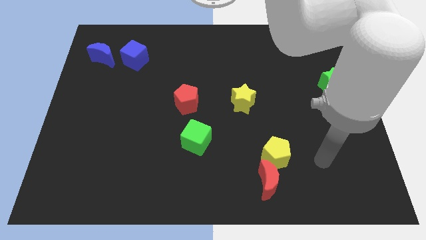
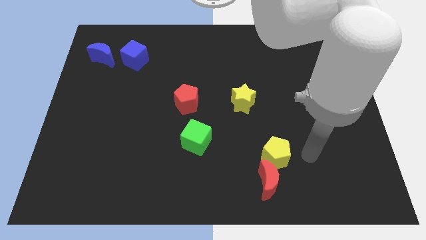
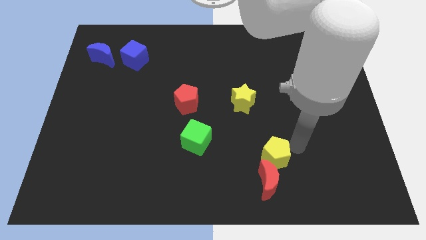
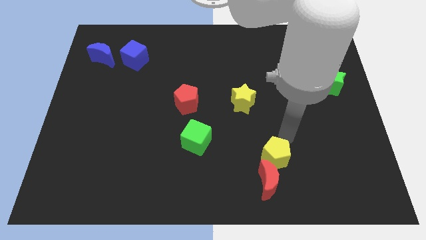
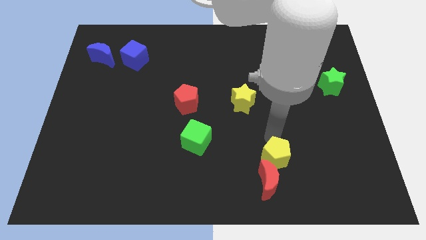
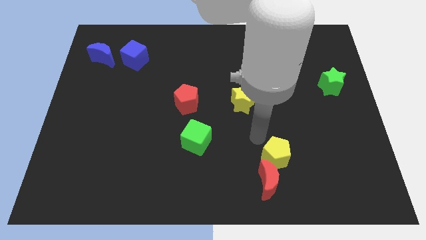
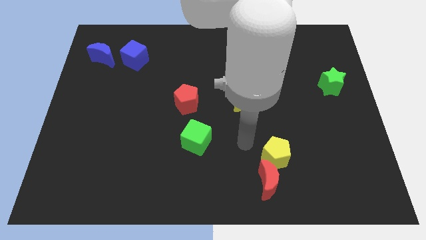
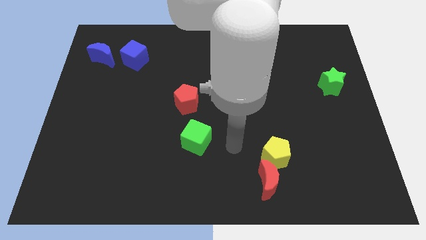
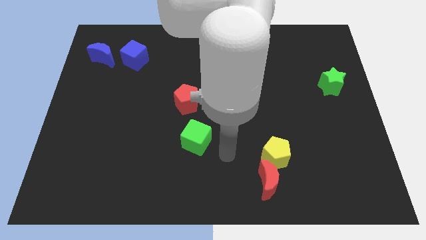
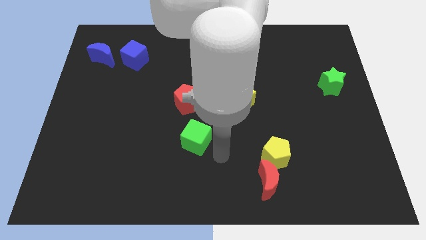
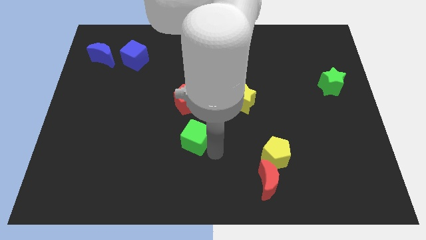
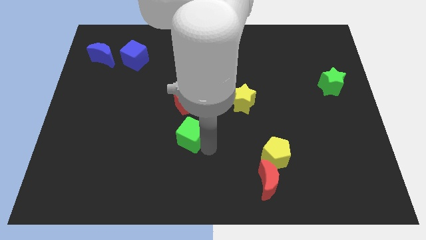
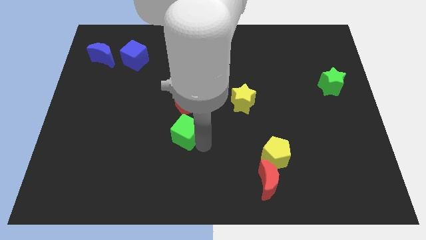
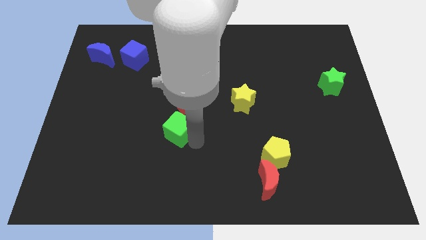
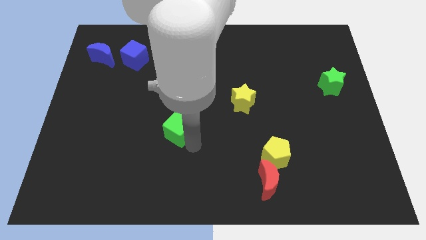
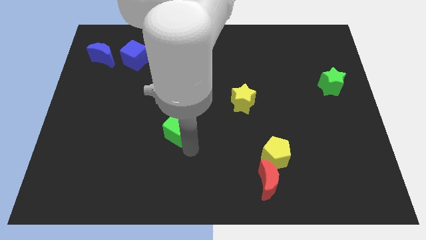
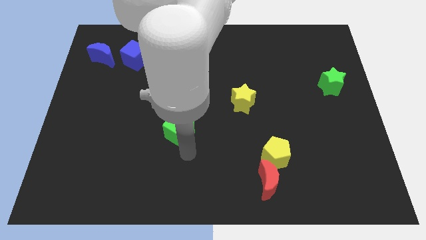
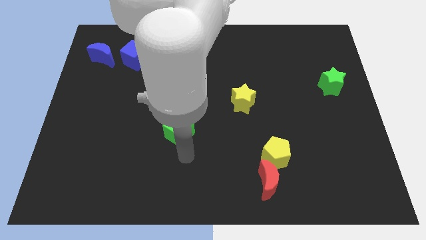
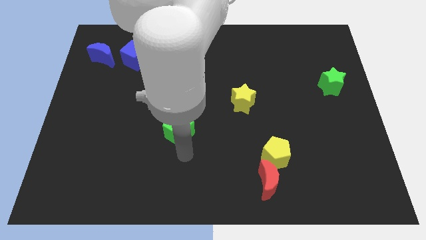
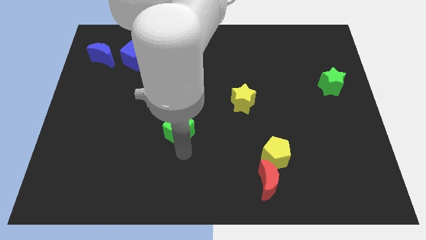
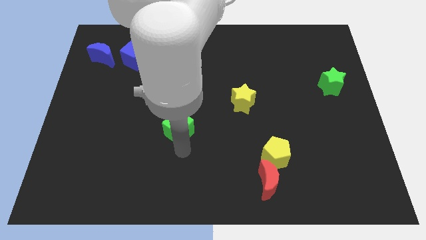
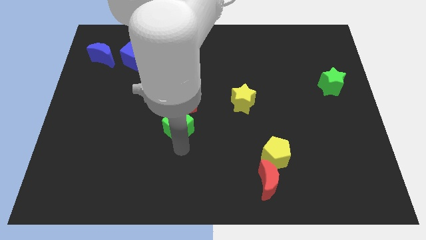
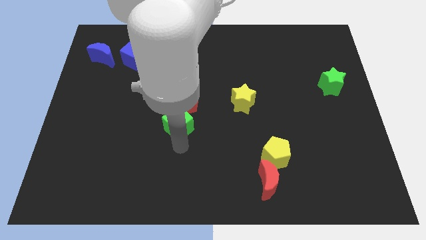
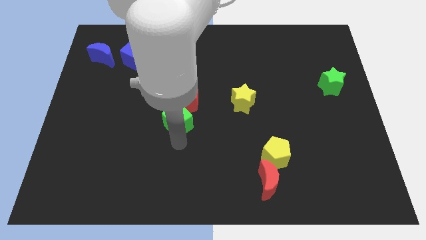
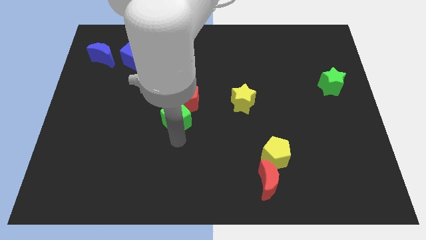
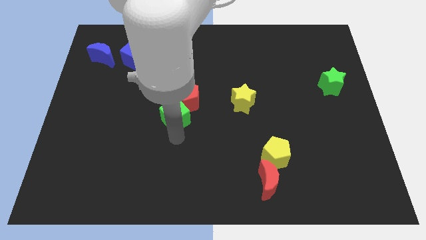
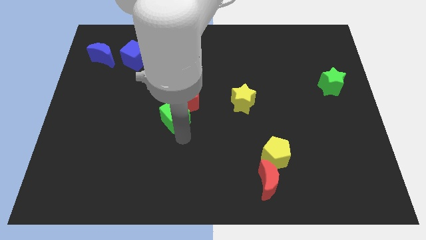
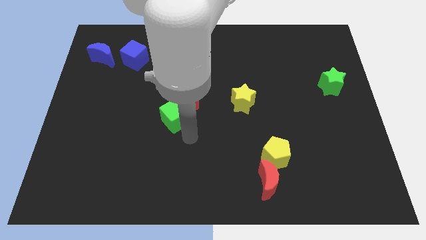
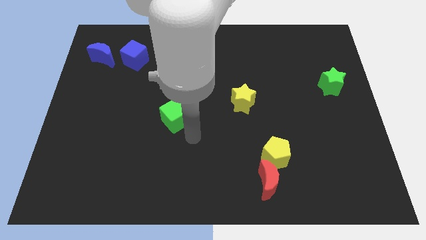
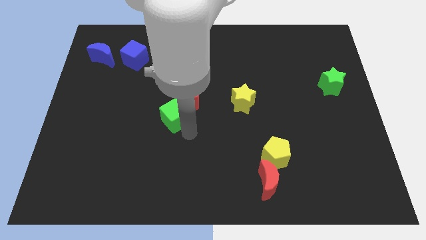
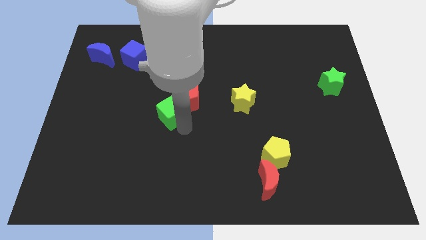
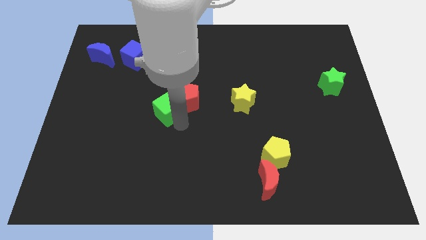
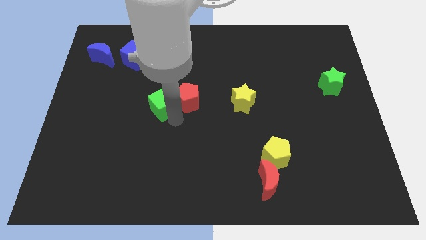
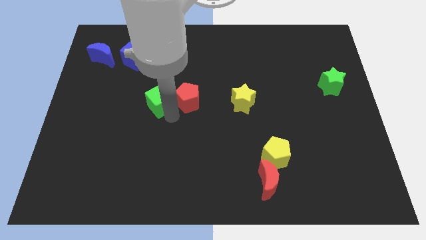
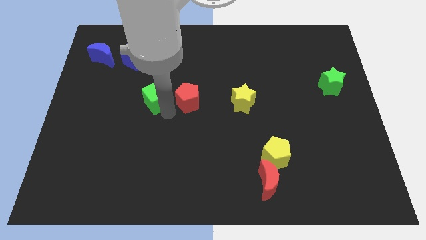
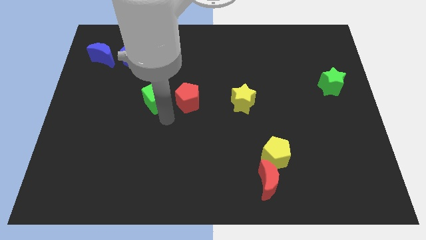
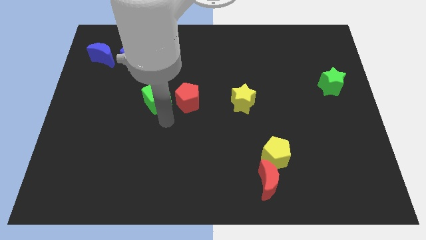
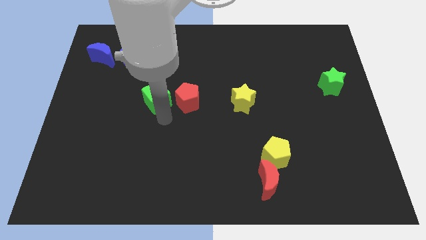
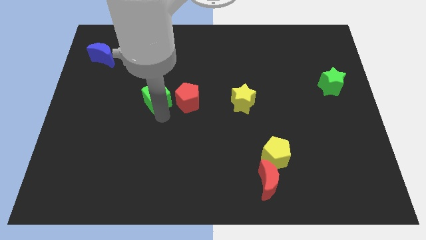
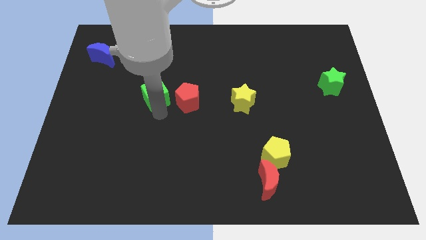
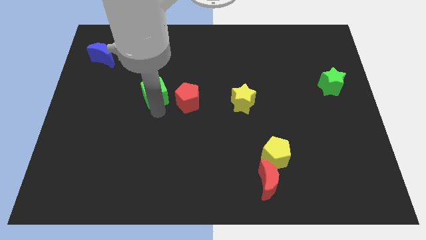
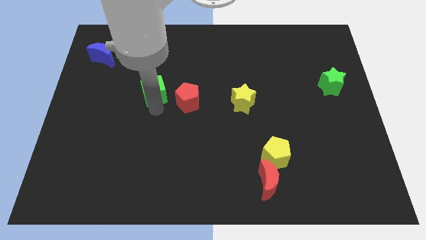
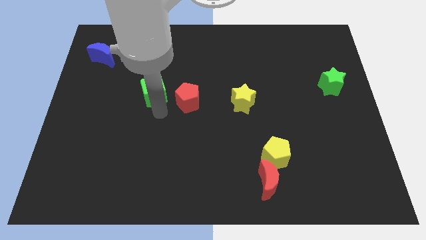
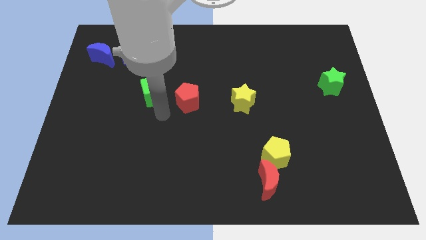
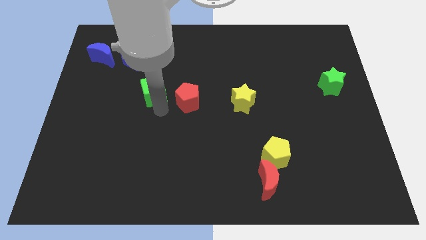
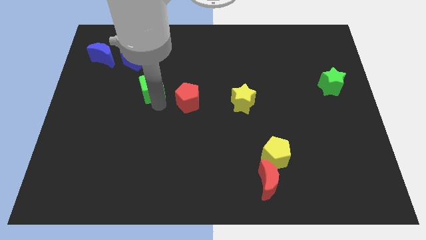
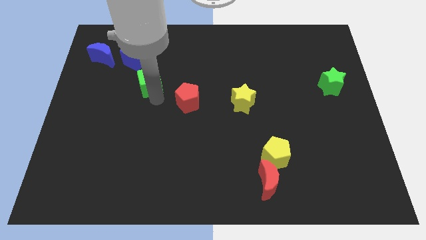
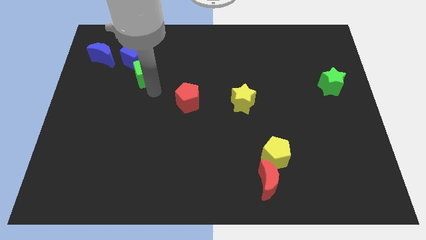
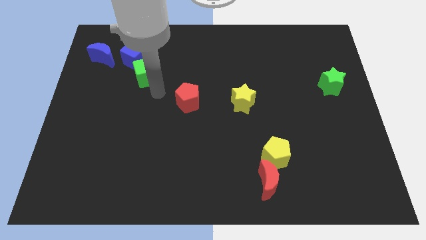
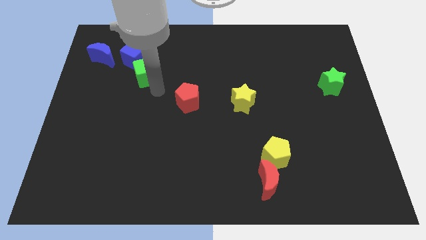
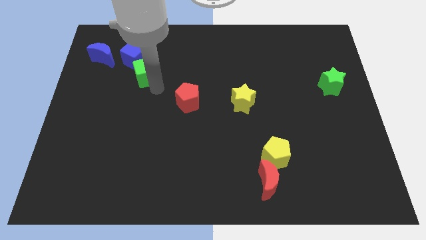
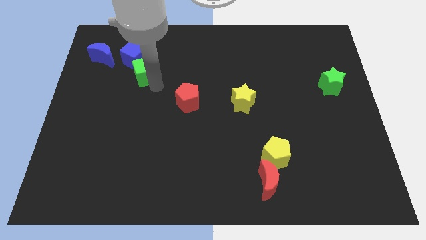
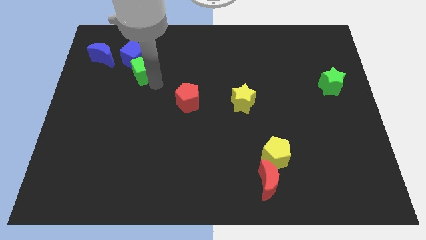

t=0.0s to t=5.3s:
put the green cube to the blue cube

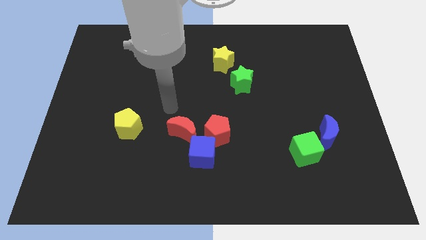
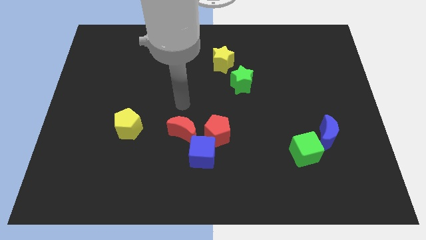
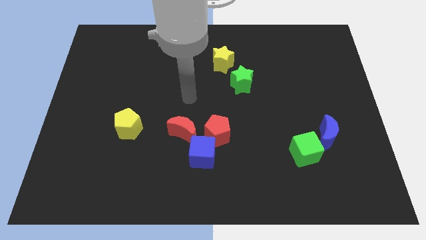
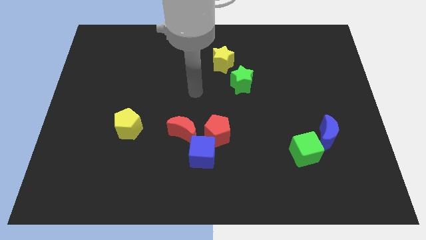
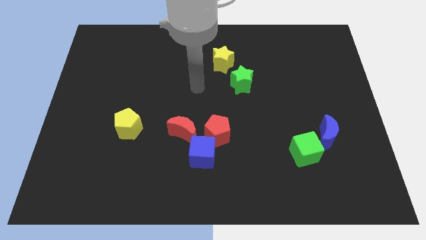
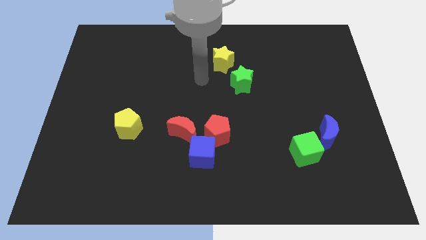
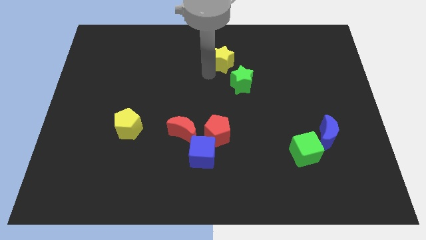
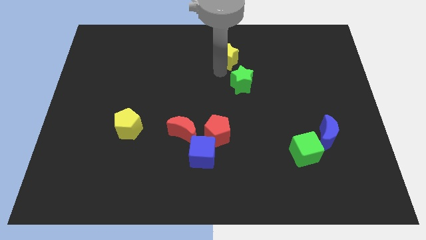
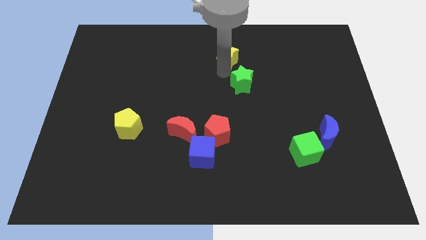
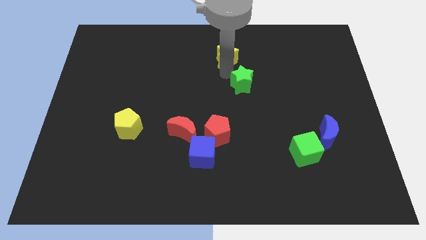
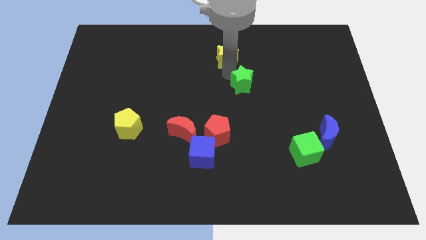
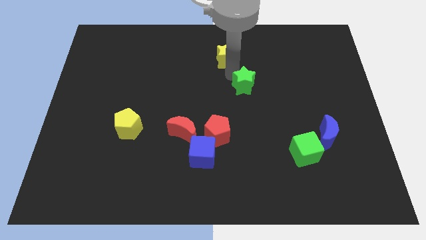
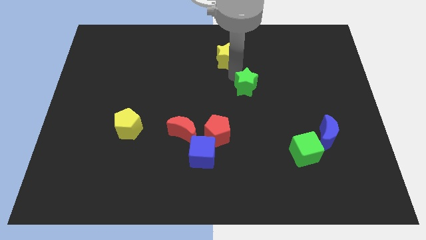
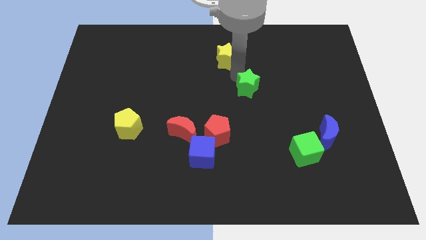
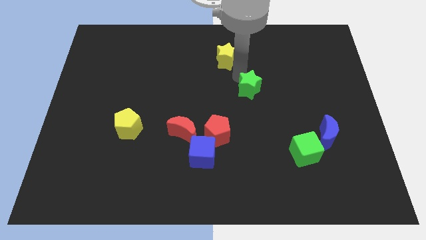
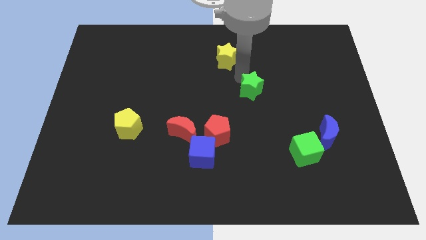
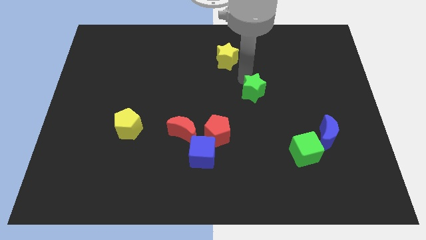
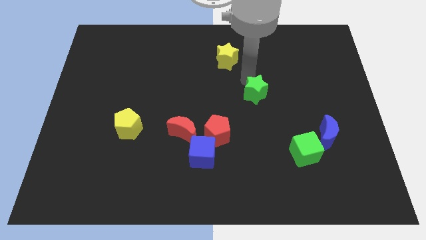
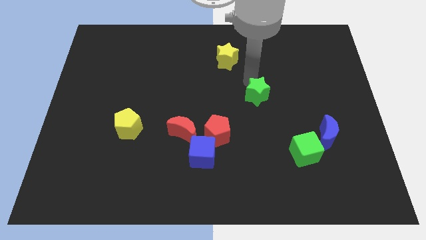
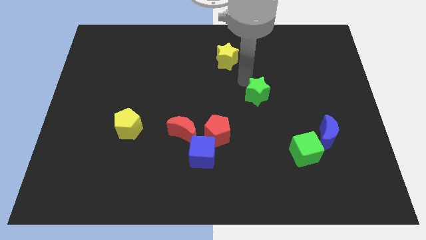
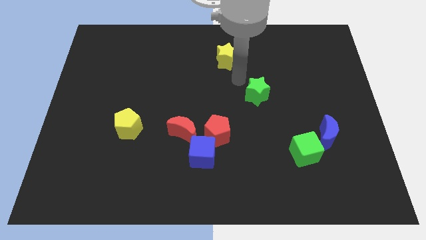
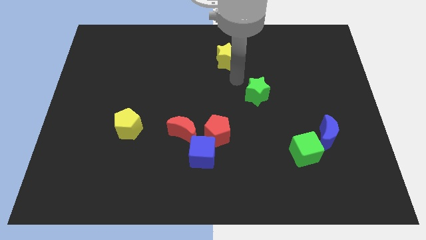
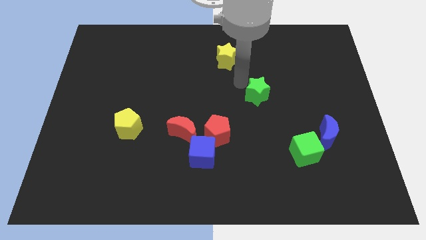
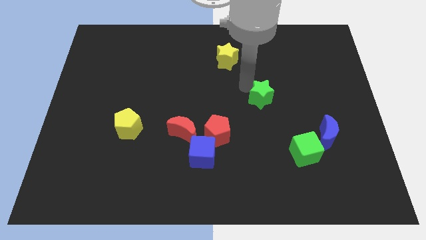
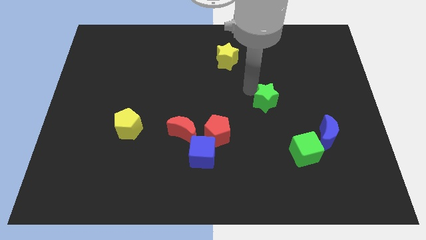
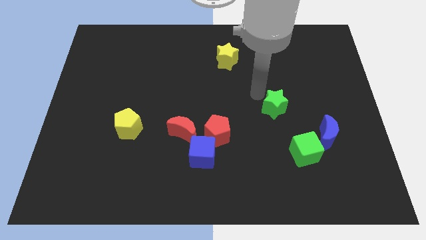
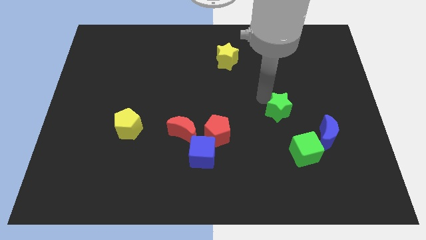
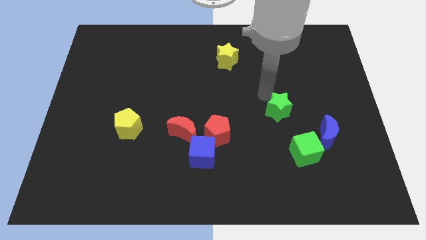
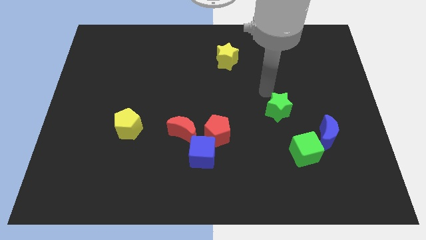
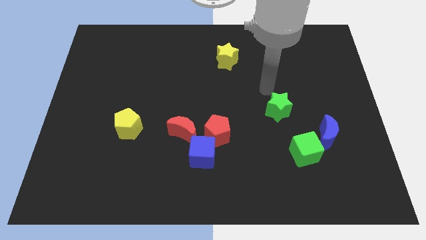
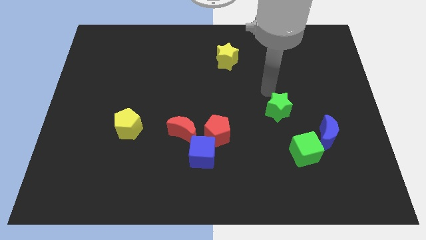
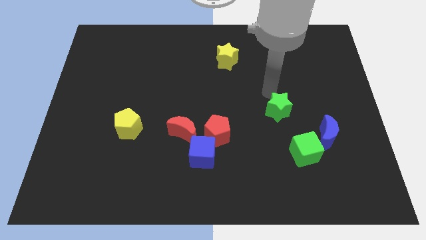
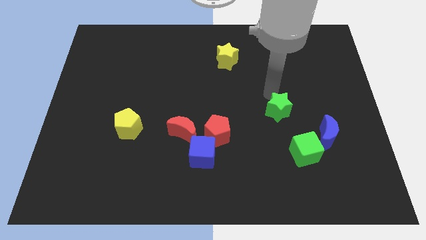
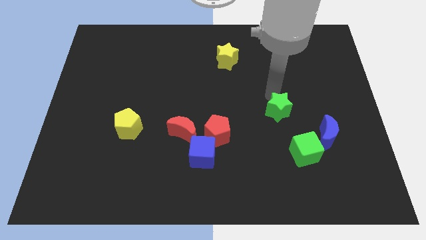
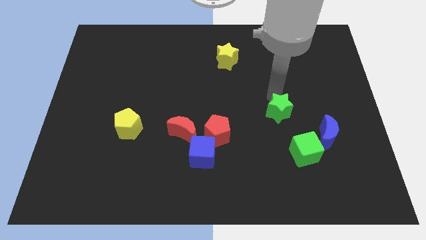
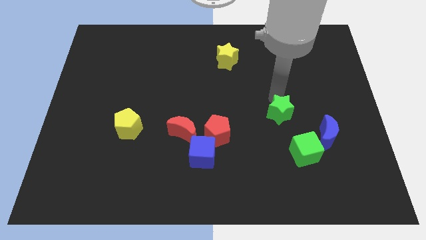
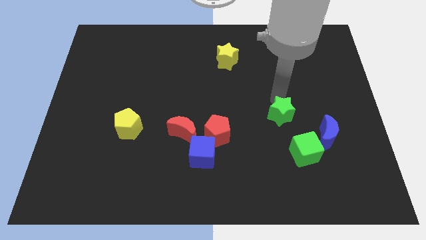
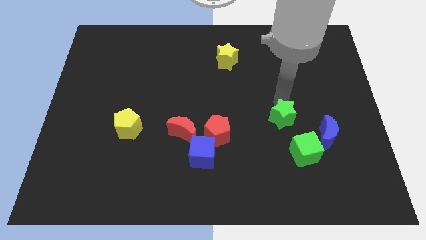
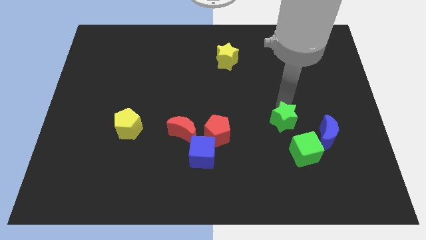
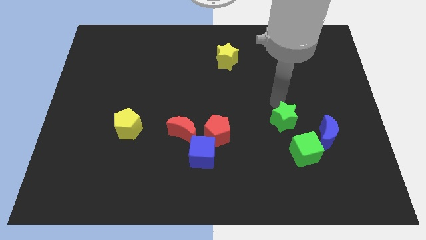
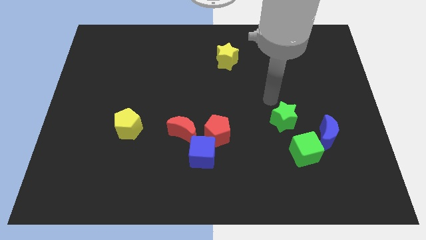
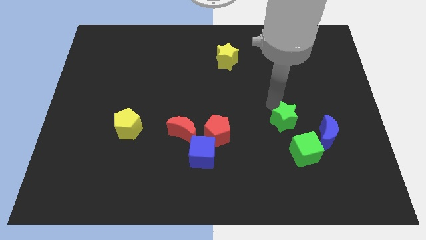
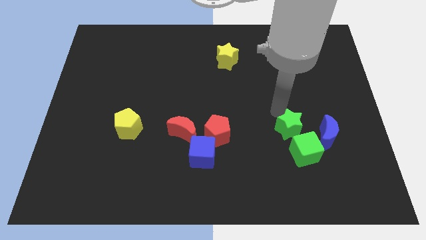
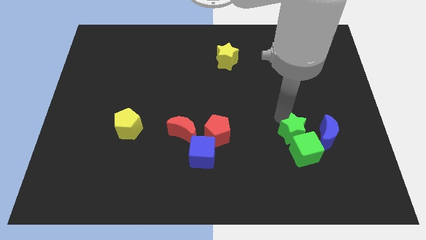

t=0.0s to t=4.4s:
put the green star next to the green cube
